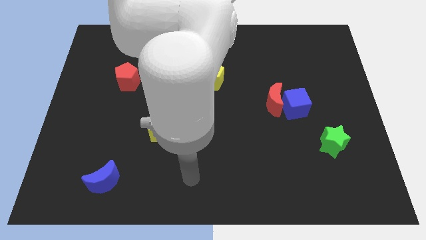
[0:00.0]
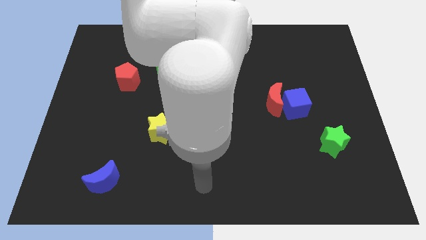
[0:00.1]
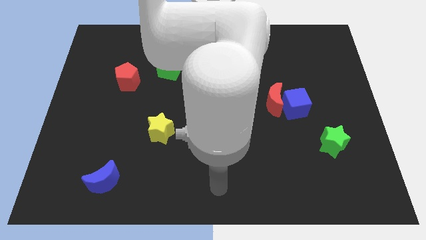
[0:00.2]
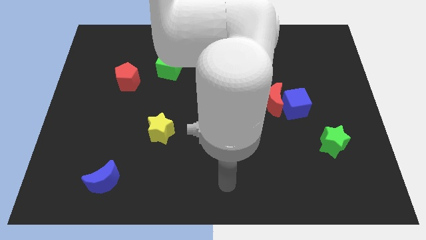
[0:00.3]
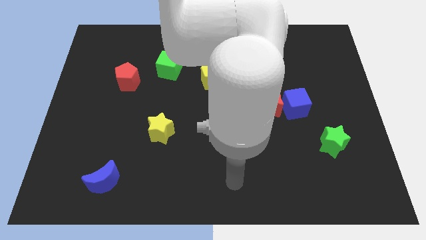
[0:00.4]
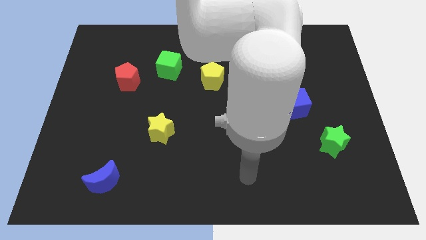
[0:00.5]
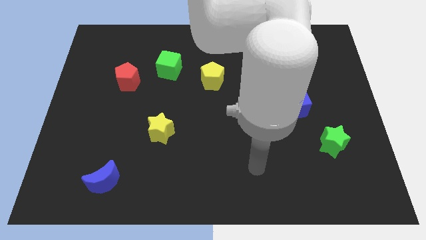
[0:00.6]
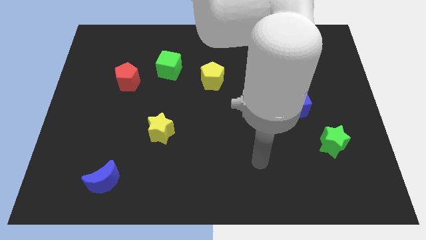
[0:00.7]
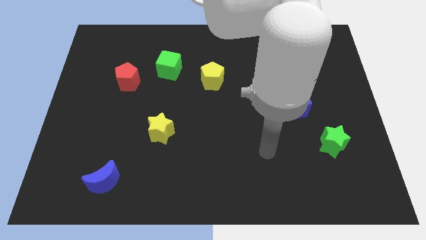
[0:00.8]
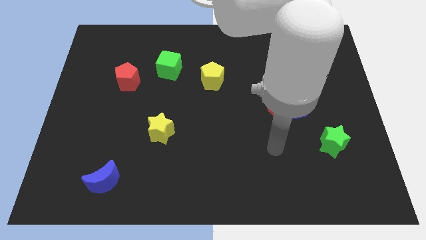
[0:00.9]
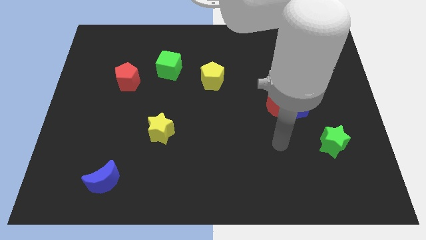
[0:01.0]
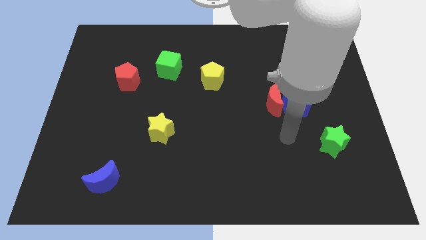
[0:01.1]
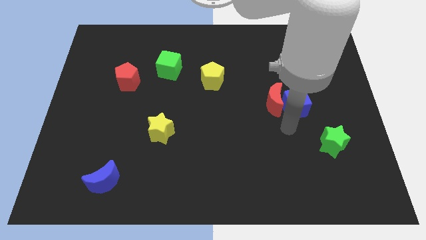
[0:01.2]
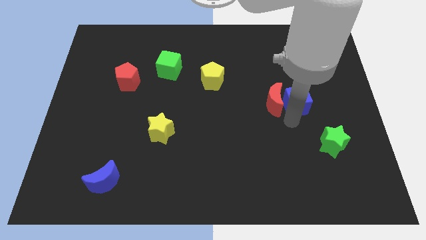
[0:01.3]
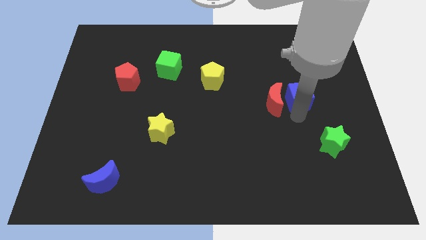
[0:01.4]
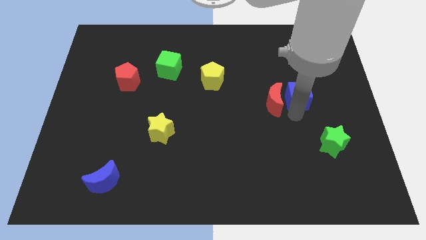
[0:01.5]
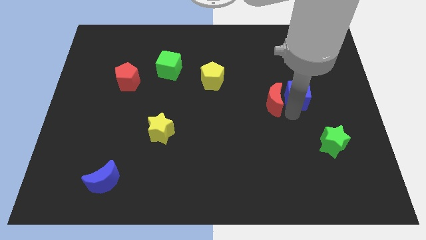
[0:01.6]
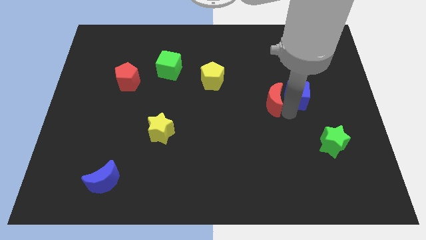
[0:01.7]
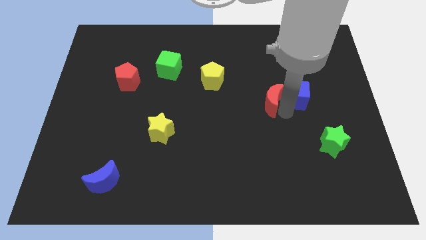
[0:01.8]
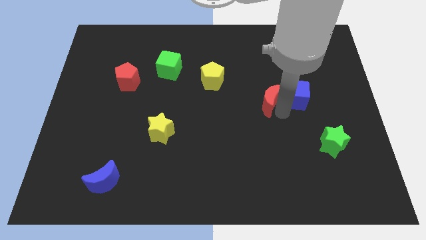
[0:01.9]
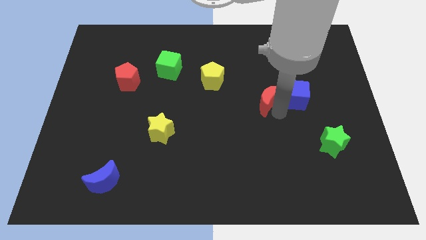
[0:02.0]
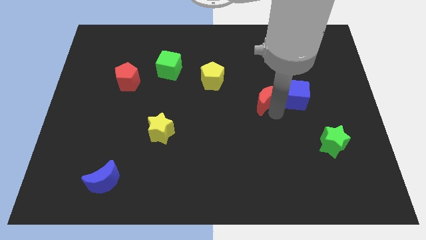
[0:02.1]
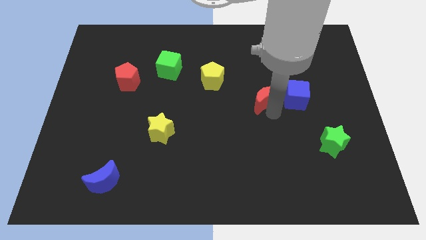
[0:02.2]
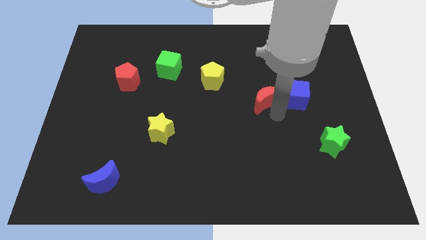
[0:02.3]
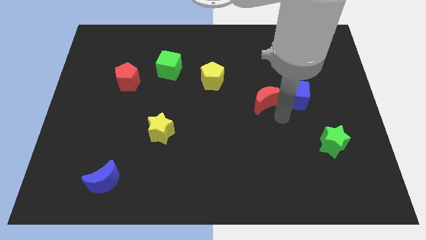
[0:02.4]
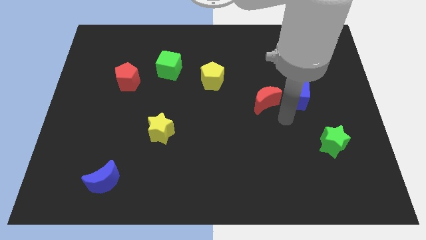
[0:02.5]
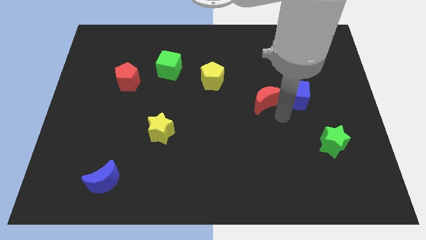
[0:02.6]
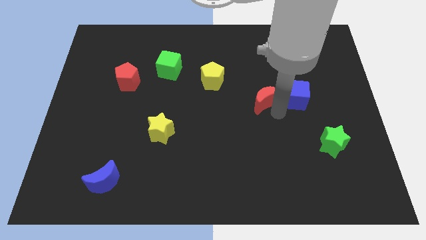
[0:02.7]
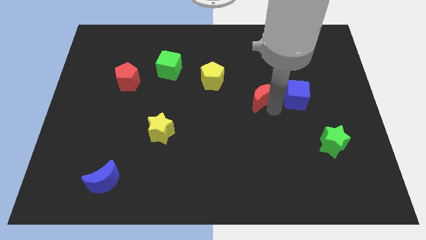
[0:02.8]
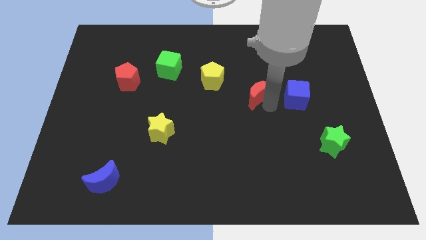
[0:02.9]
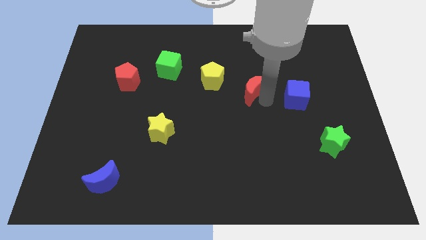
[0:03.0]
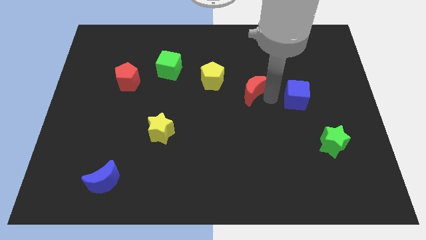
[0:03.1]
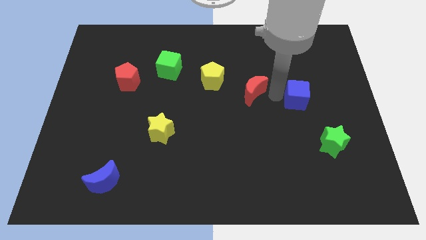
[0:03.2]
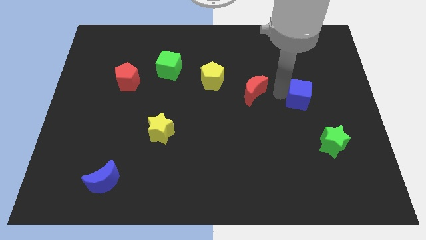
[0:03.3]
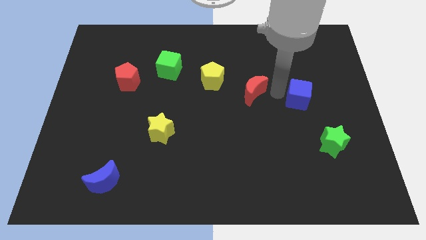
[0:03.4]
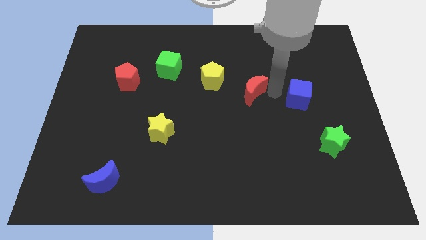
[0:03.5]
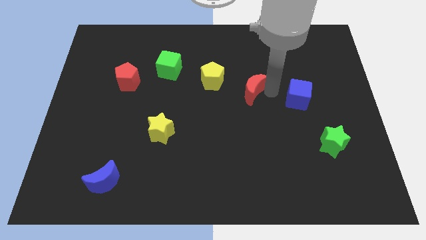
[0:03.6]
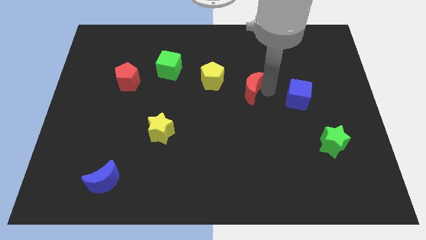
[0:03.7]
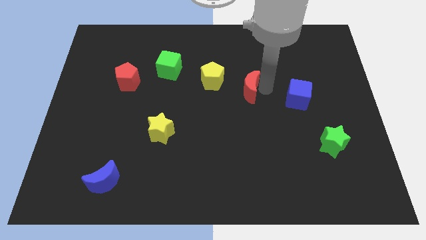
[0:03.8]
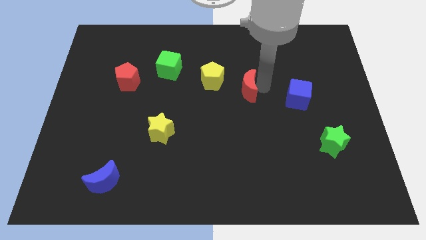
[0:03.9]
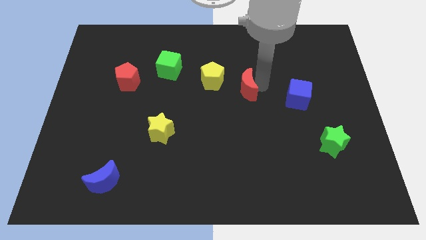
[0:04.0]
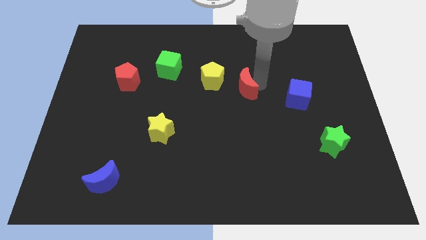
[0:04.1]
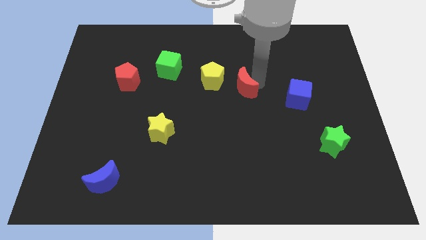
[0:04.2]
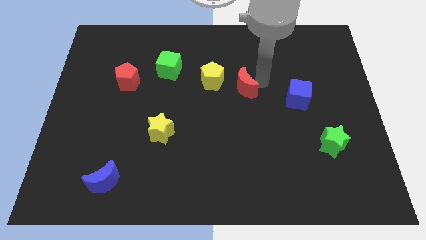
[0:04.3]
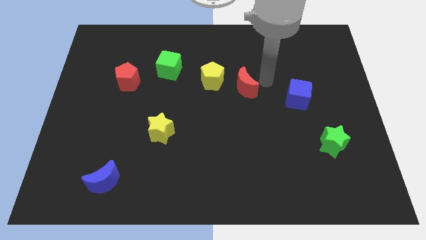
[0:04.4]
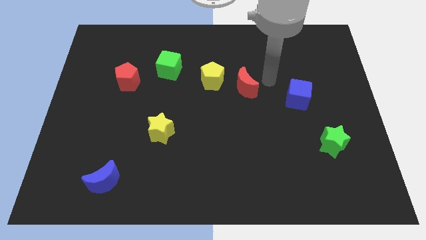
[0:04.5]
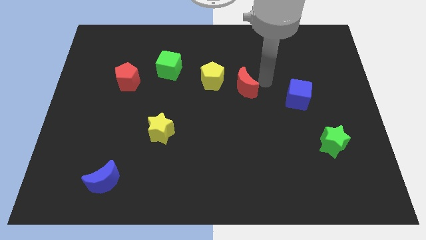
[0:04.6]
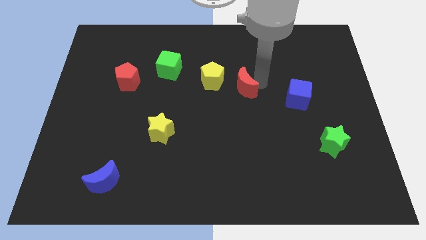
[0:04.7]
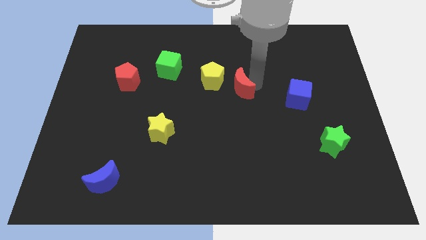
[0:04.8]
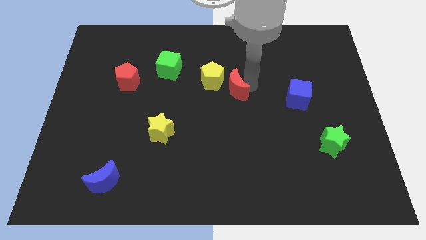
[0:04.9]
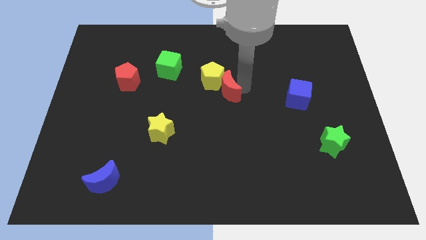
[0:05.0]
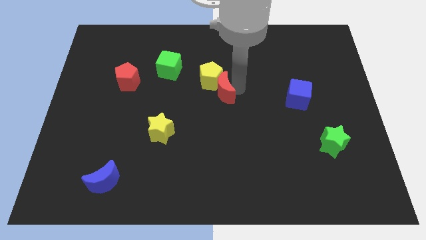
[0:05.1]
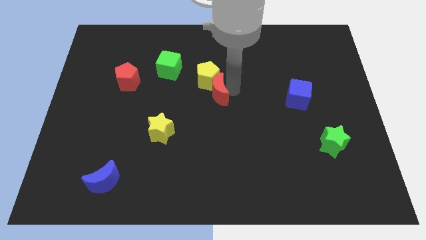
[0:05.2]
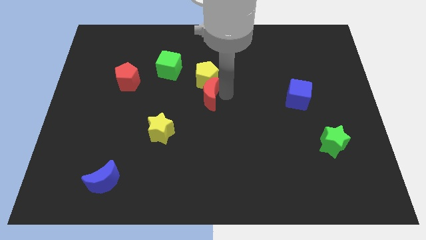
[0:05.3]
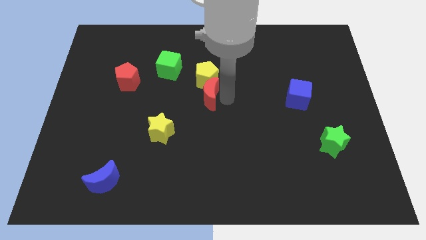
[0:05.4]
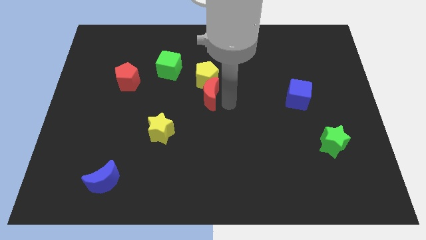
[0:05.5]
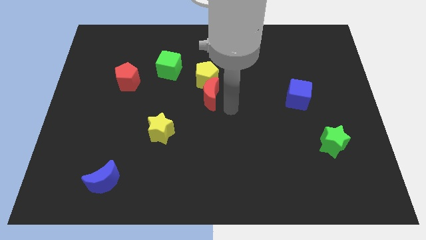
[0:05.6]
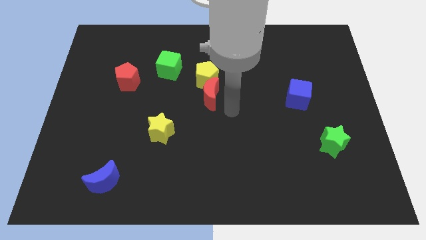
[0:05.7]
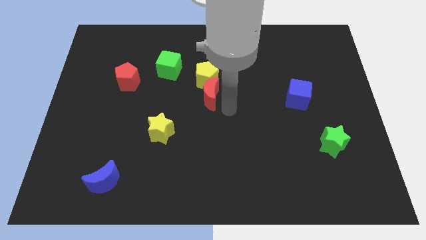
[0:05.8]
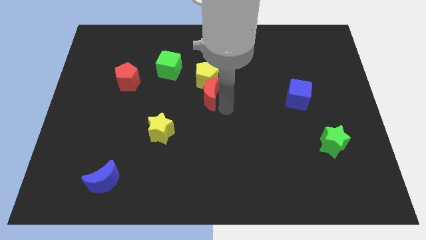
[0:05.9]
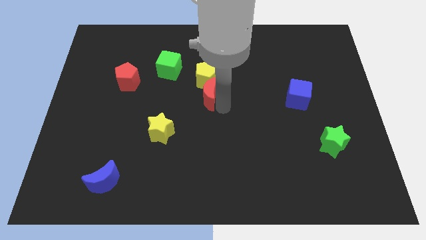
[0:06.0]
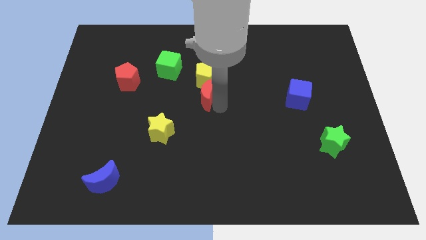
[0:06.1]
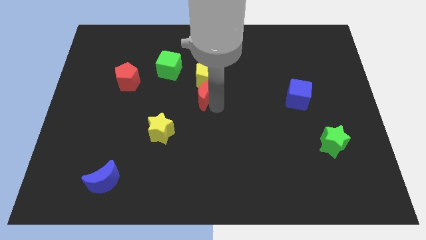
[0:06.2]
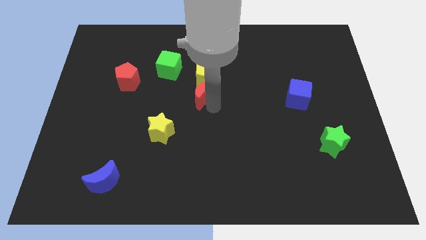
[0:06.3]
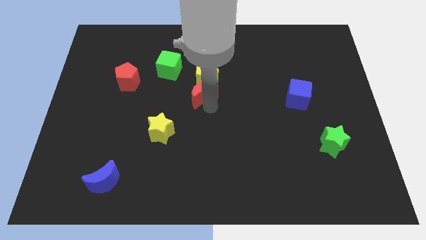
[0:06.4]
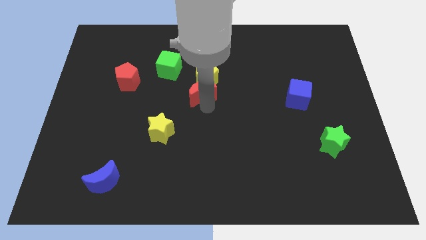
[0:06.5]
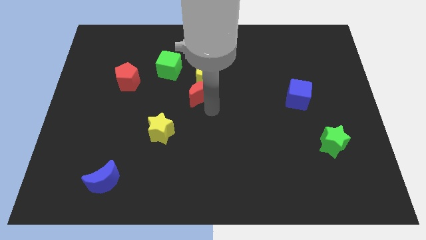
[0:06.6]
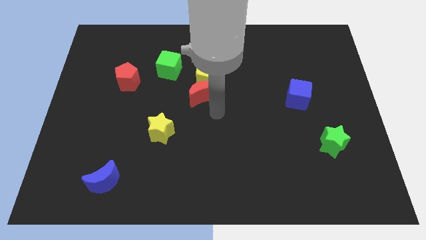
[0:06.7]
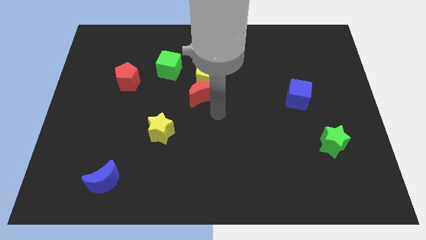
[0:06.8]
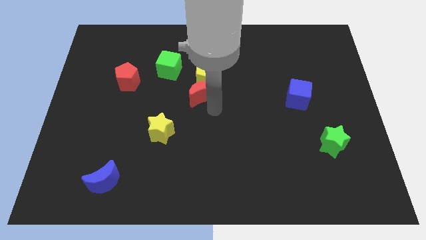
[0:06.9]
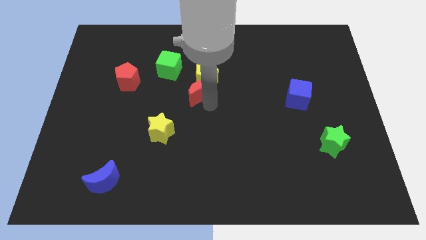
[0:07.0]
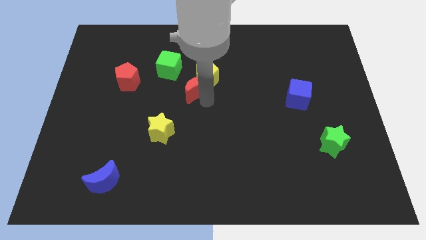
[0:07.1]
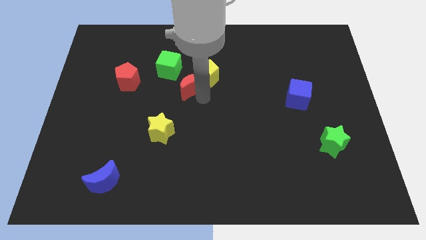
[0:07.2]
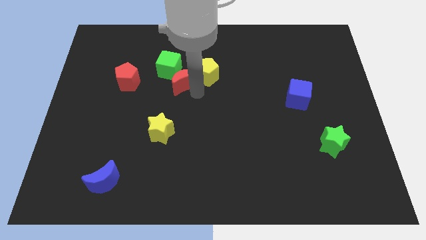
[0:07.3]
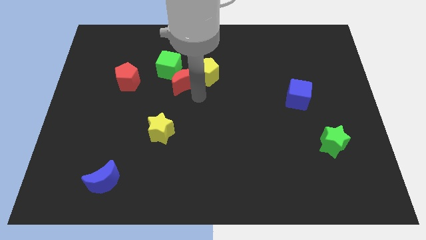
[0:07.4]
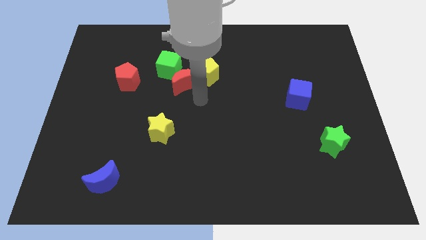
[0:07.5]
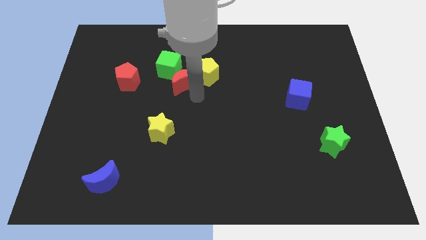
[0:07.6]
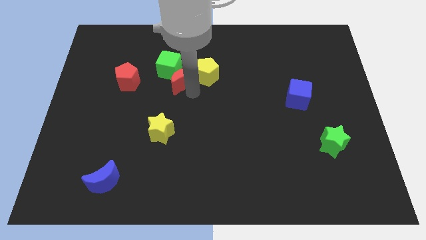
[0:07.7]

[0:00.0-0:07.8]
put the red moon next to the green cube
